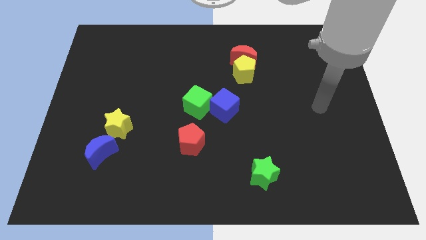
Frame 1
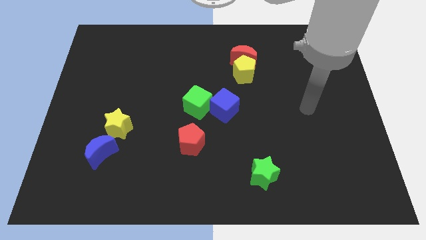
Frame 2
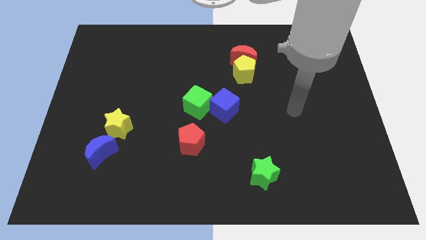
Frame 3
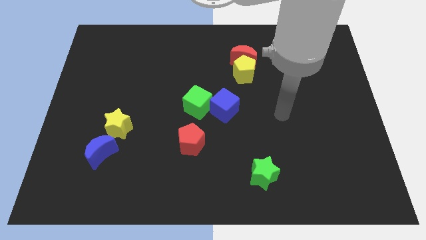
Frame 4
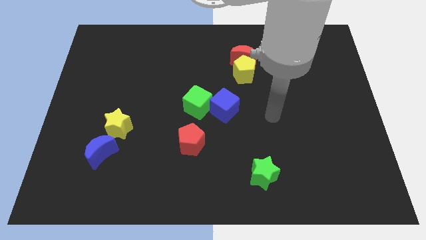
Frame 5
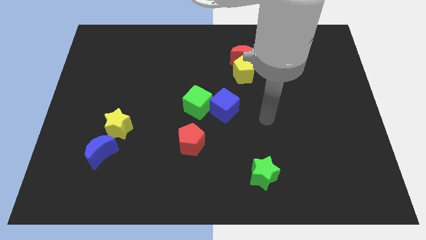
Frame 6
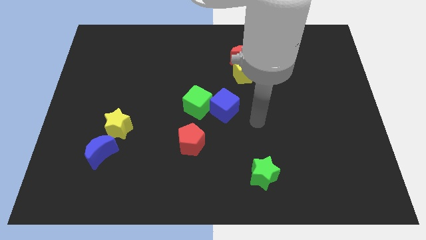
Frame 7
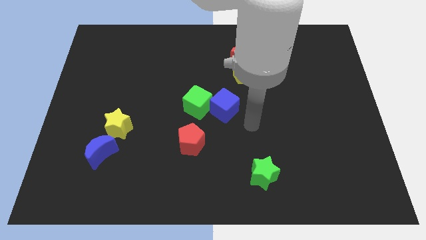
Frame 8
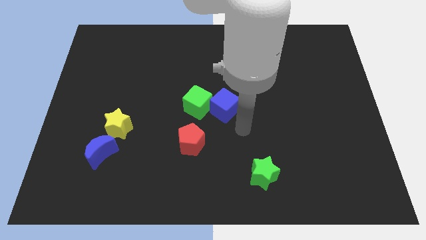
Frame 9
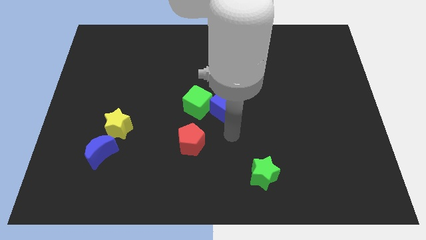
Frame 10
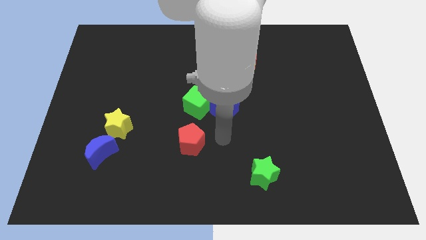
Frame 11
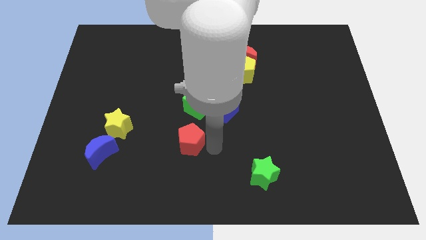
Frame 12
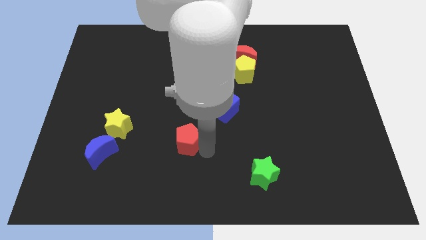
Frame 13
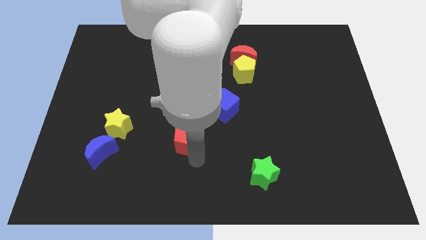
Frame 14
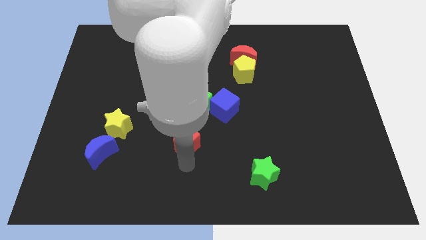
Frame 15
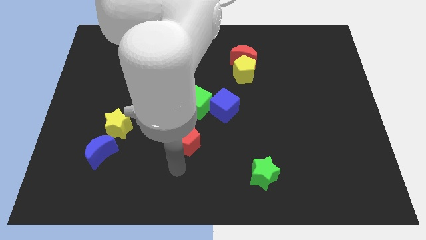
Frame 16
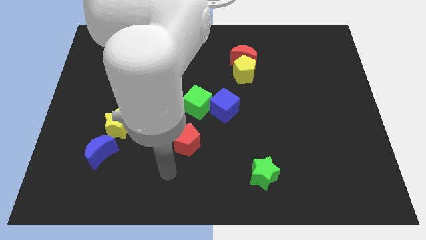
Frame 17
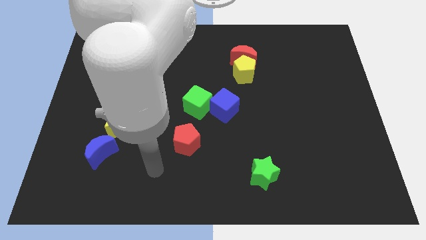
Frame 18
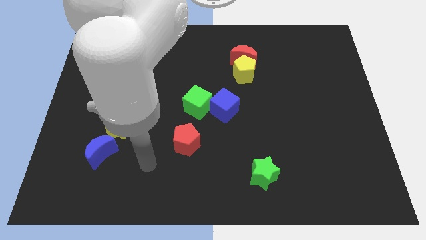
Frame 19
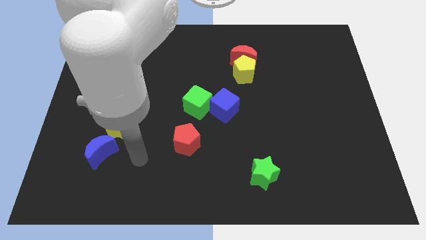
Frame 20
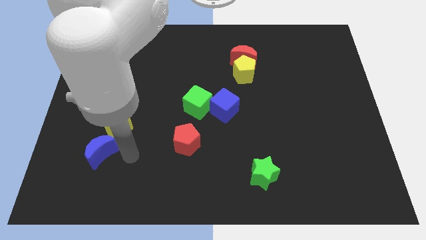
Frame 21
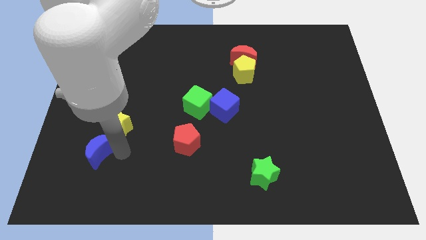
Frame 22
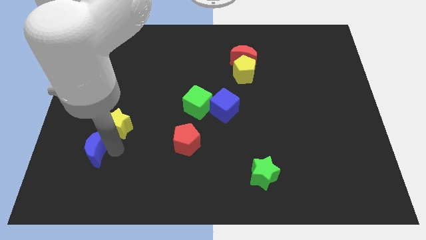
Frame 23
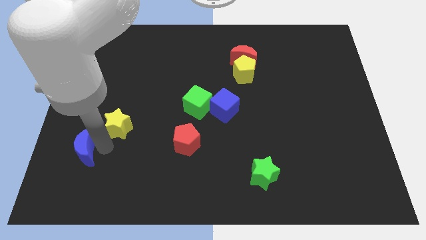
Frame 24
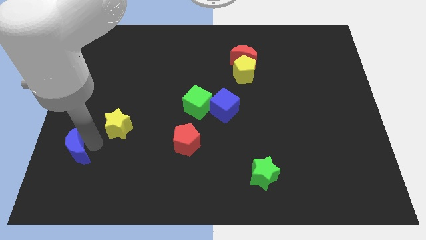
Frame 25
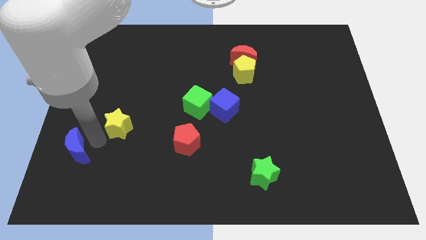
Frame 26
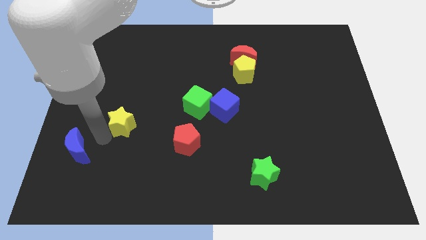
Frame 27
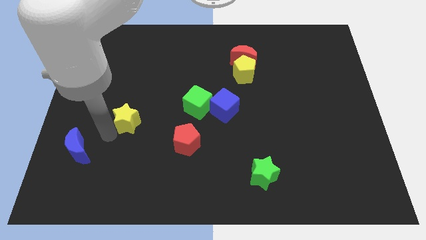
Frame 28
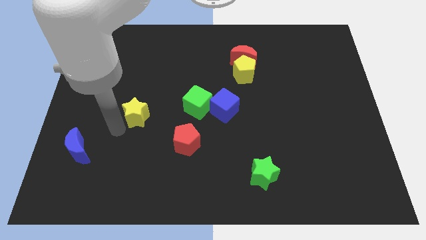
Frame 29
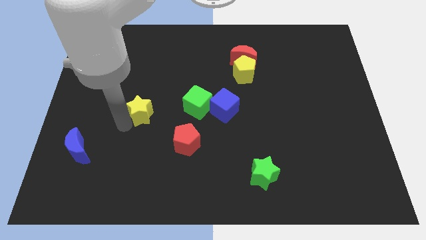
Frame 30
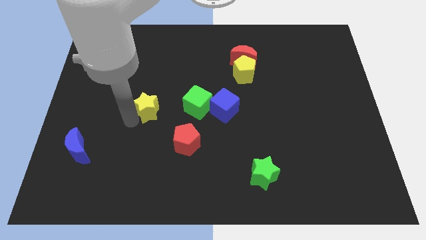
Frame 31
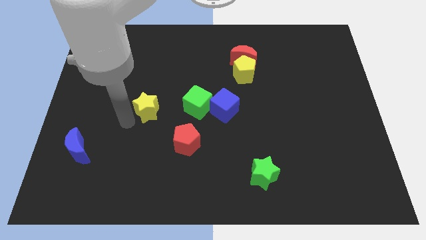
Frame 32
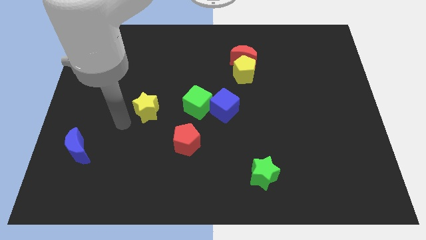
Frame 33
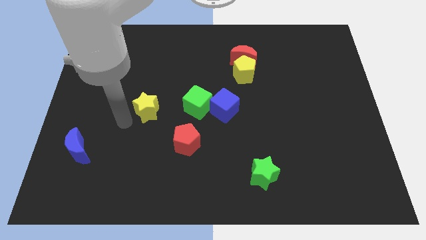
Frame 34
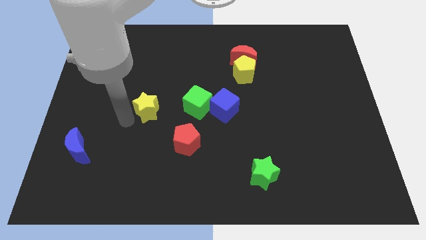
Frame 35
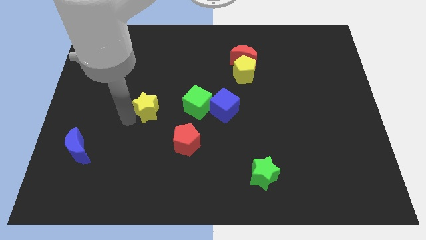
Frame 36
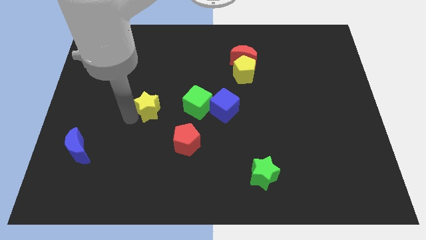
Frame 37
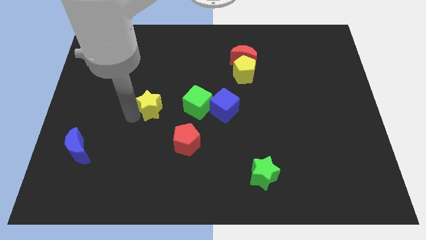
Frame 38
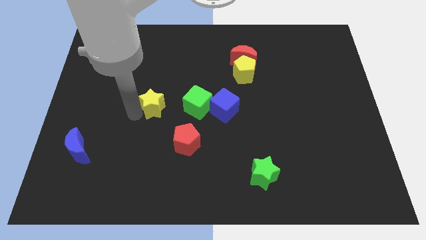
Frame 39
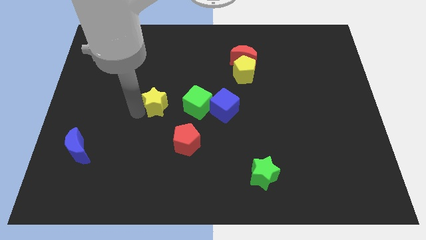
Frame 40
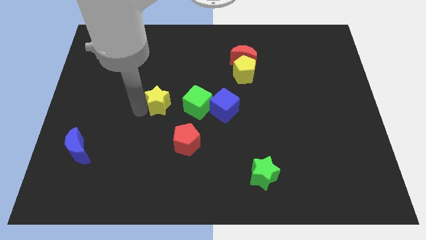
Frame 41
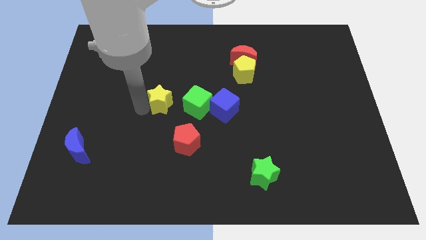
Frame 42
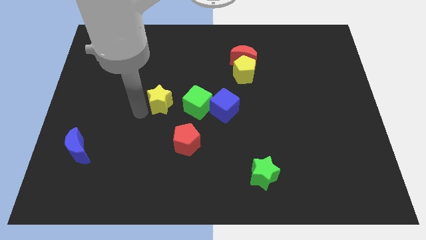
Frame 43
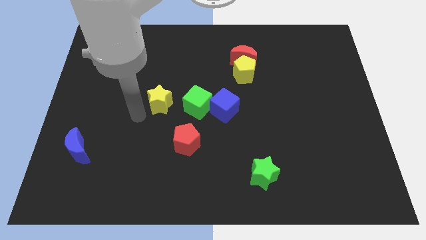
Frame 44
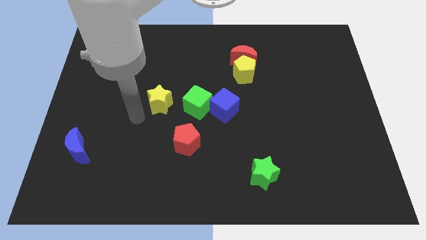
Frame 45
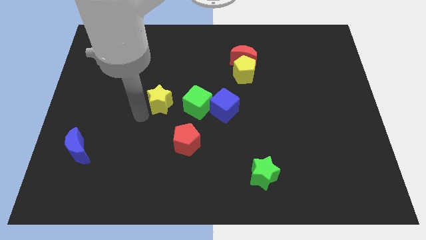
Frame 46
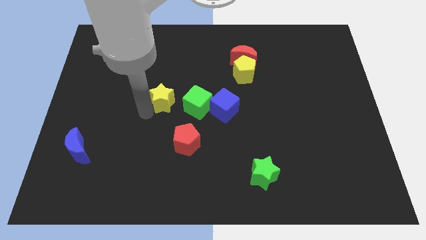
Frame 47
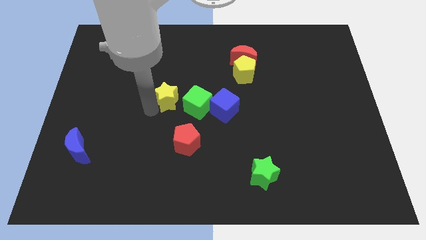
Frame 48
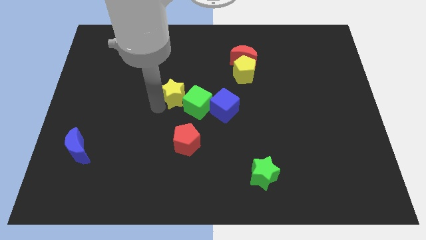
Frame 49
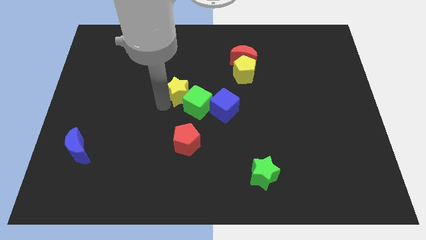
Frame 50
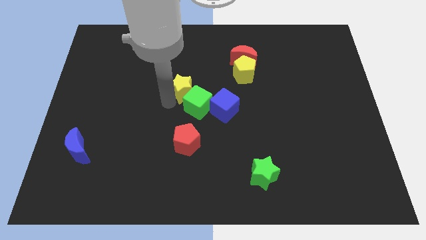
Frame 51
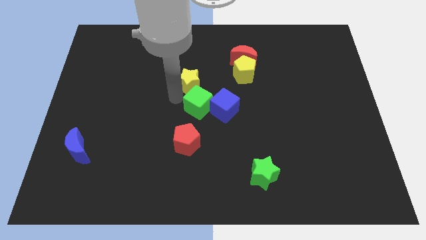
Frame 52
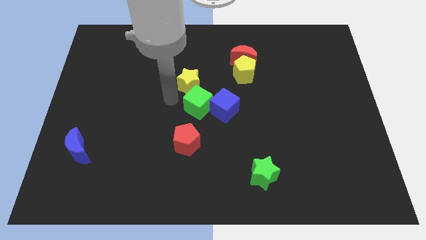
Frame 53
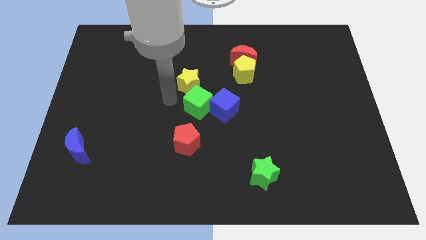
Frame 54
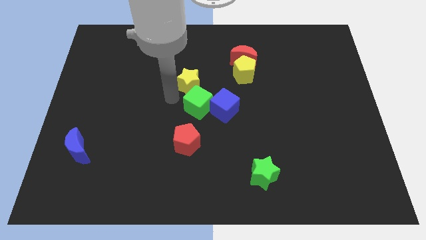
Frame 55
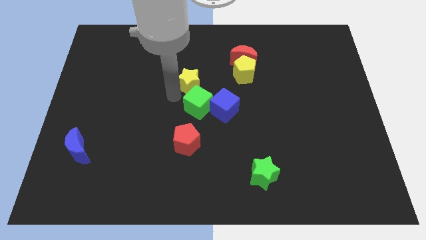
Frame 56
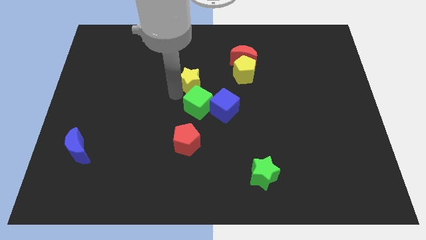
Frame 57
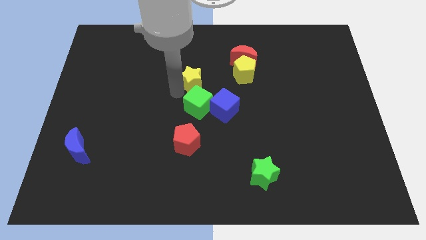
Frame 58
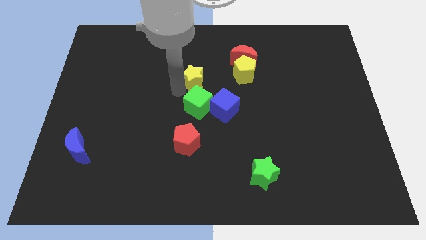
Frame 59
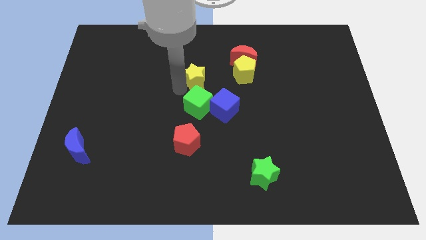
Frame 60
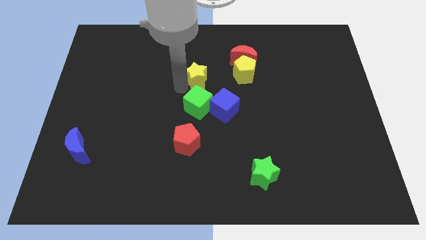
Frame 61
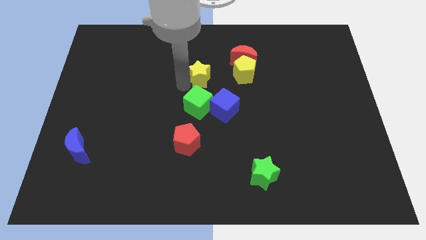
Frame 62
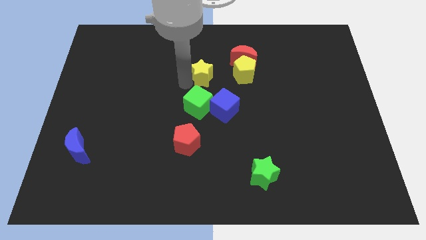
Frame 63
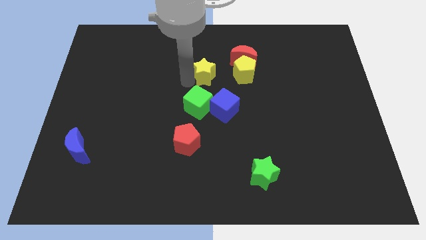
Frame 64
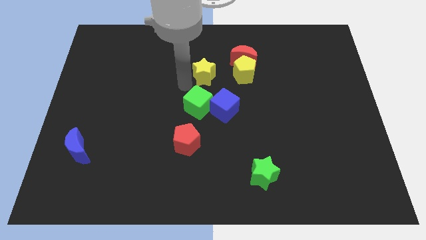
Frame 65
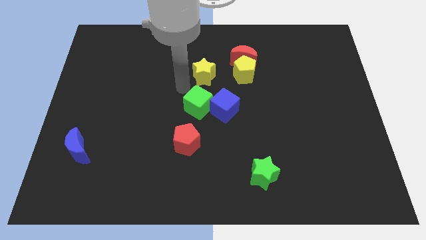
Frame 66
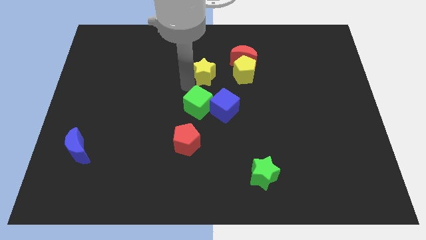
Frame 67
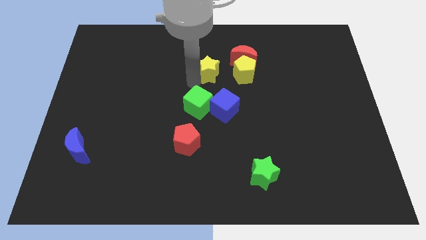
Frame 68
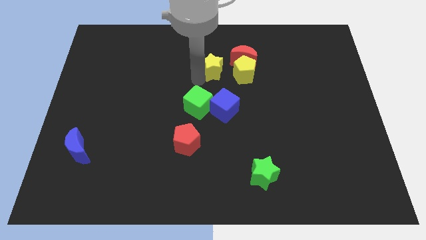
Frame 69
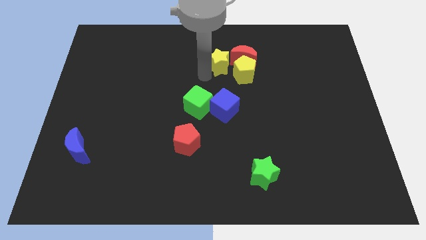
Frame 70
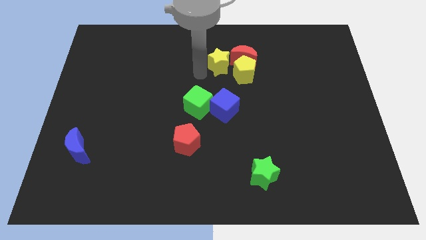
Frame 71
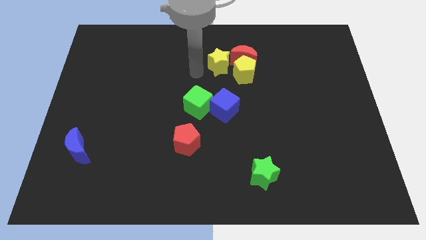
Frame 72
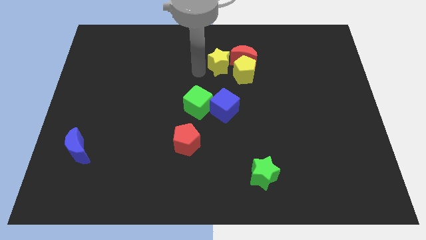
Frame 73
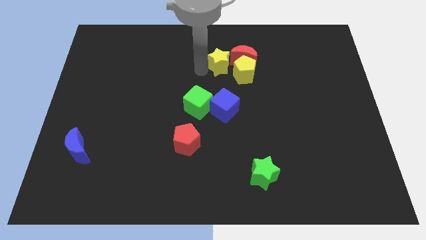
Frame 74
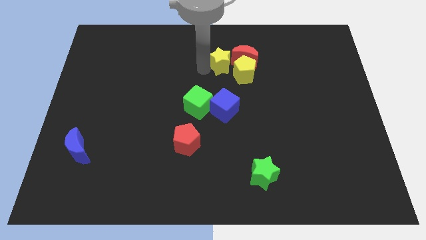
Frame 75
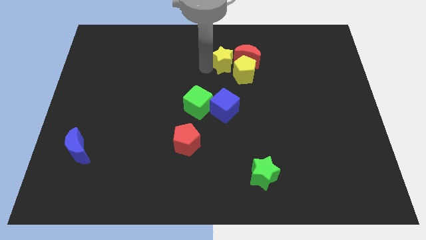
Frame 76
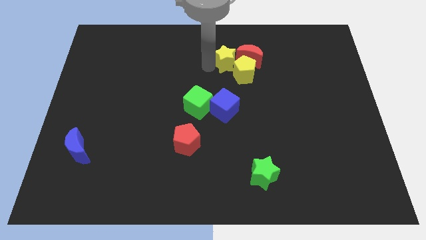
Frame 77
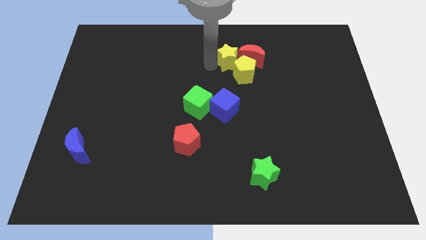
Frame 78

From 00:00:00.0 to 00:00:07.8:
push the yellow star towards the red moon
